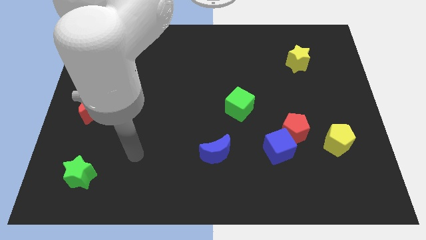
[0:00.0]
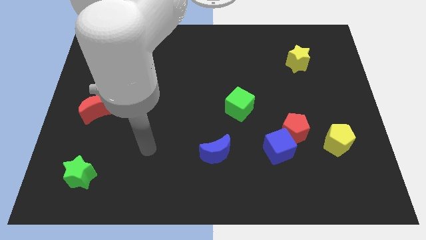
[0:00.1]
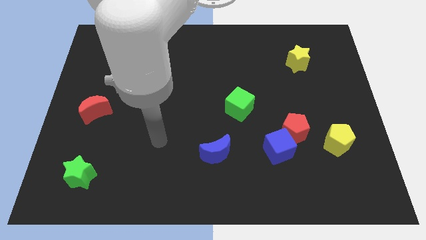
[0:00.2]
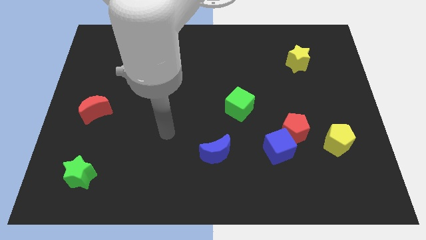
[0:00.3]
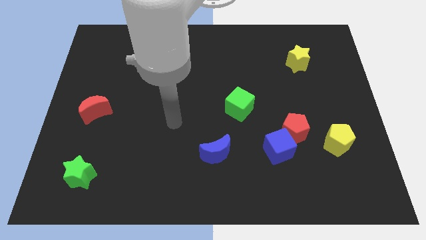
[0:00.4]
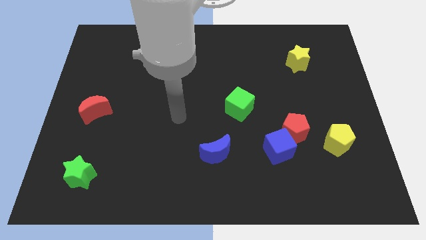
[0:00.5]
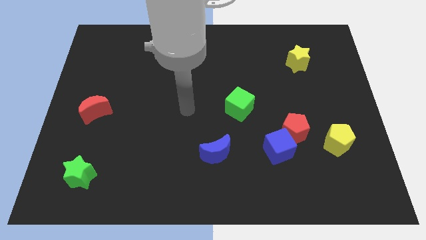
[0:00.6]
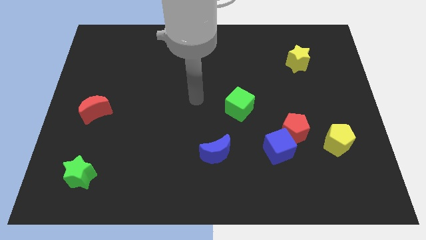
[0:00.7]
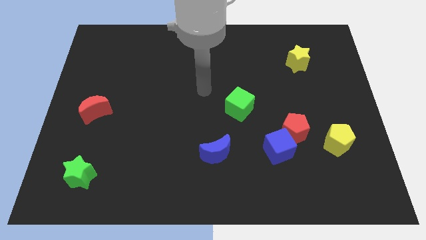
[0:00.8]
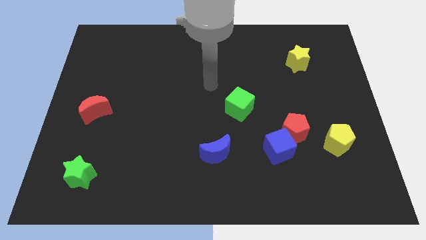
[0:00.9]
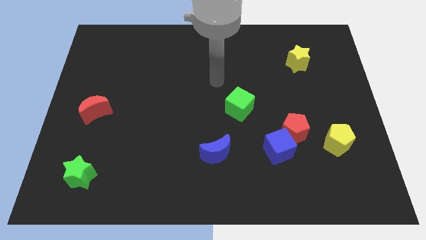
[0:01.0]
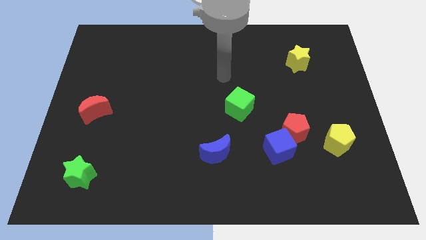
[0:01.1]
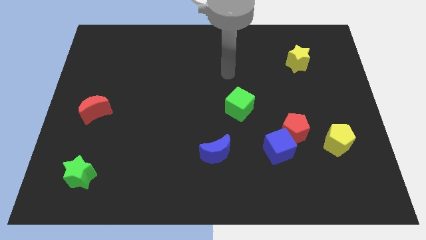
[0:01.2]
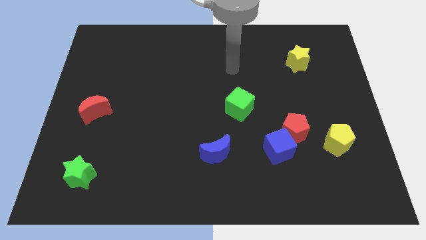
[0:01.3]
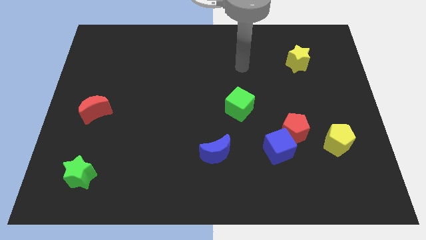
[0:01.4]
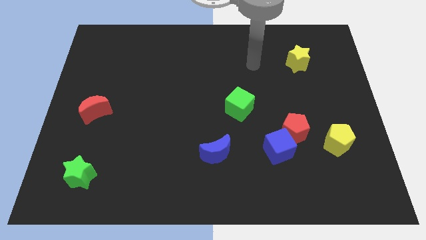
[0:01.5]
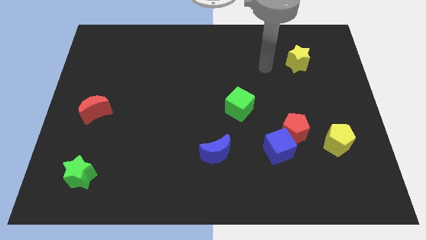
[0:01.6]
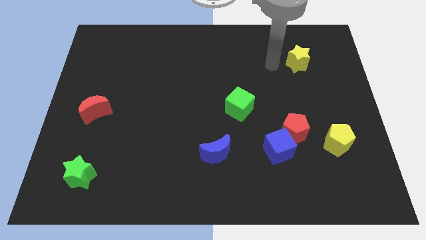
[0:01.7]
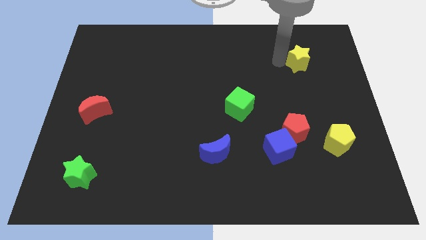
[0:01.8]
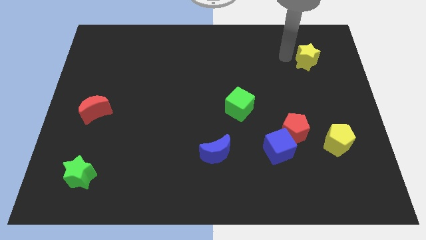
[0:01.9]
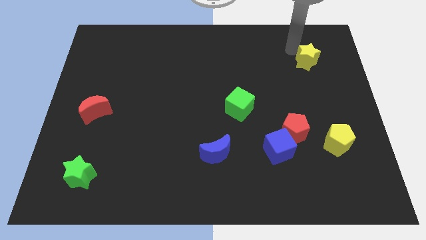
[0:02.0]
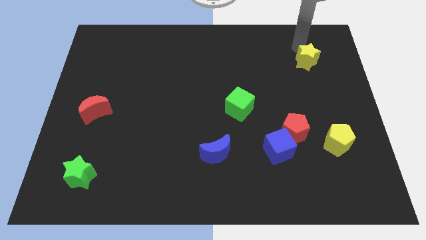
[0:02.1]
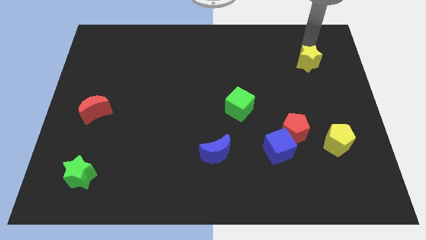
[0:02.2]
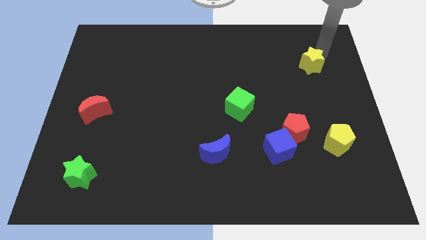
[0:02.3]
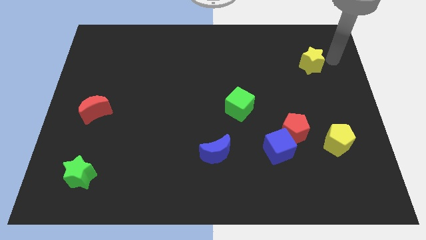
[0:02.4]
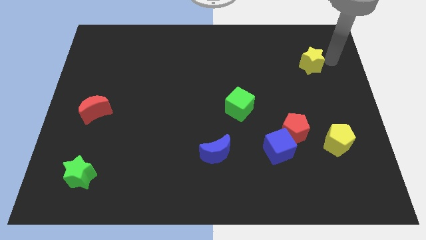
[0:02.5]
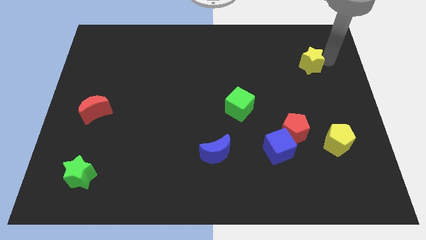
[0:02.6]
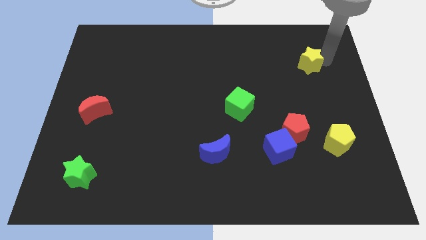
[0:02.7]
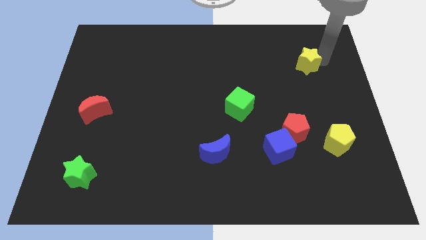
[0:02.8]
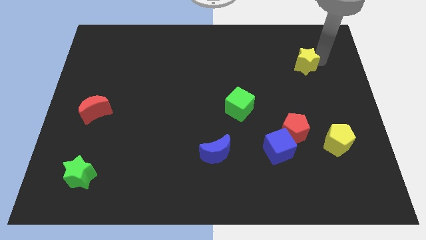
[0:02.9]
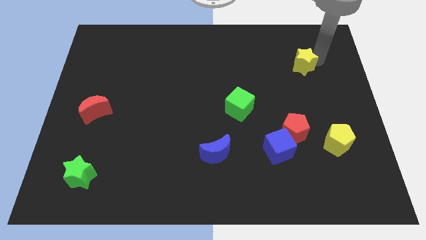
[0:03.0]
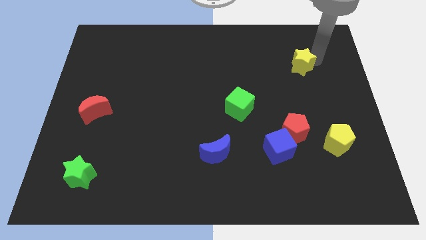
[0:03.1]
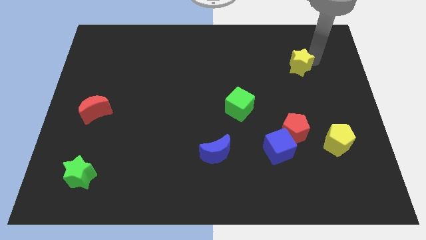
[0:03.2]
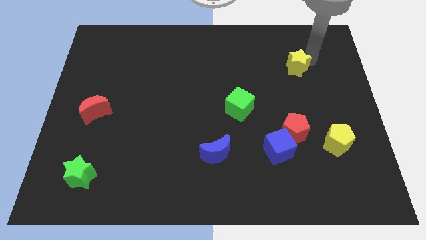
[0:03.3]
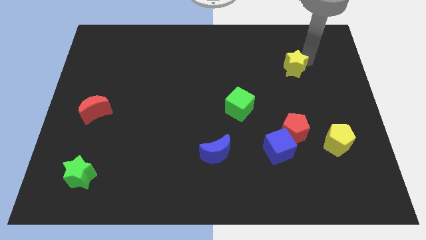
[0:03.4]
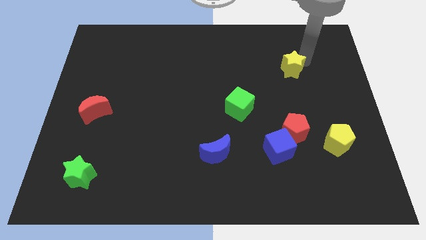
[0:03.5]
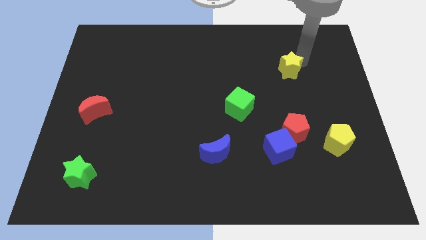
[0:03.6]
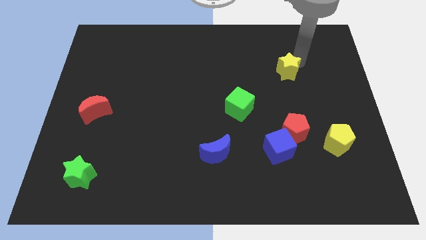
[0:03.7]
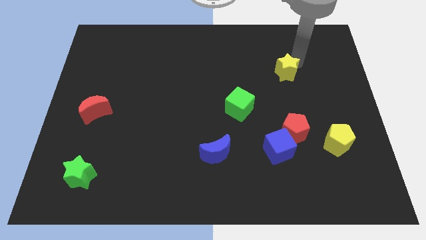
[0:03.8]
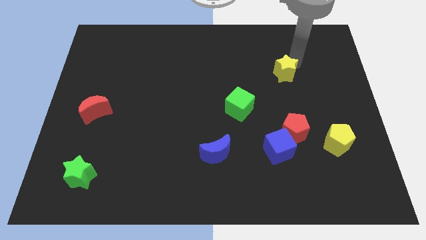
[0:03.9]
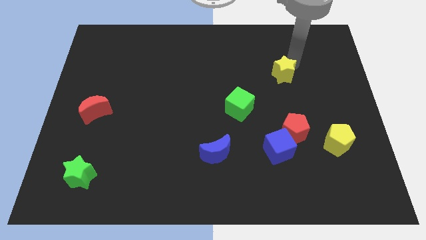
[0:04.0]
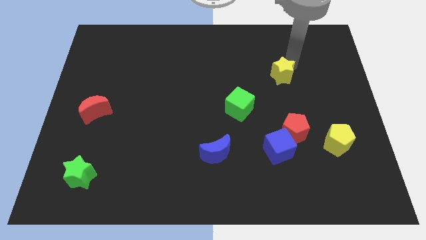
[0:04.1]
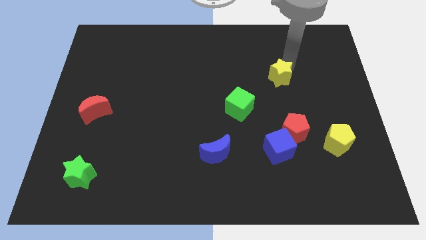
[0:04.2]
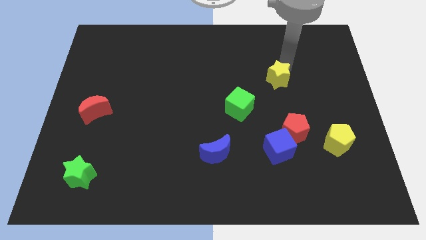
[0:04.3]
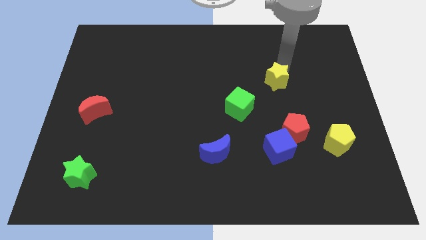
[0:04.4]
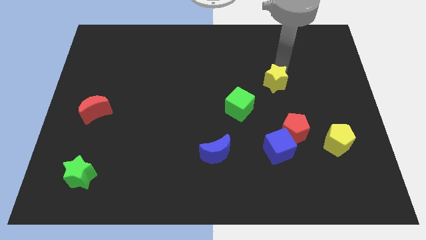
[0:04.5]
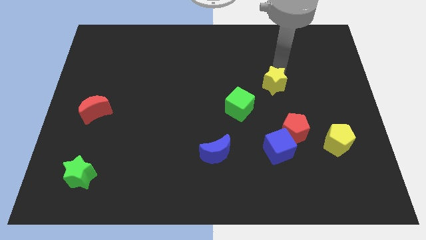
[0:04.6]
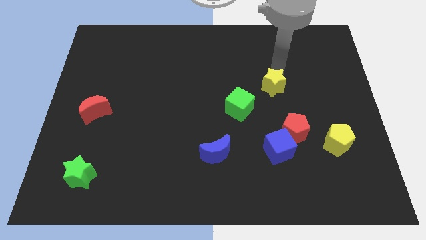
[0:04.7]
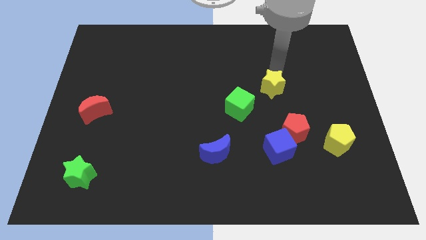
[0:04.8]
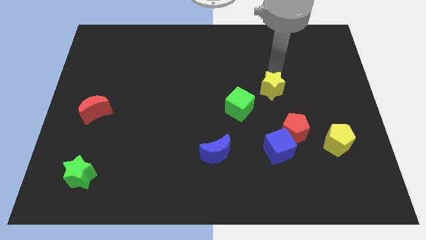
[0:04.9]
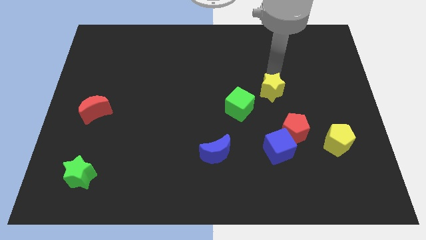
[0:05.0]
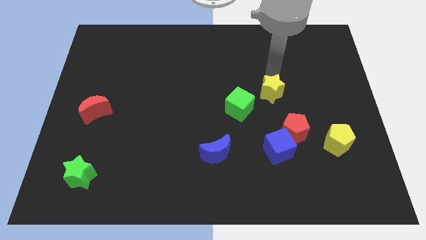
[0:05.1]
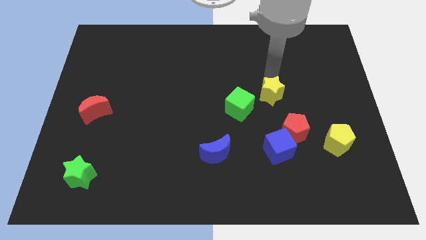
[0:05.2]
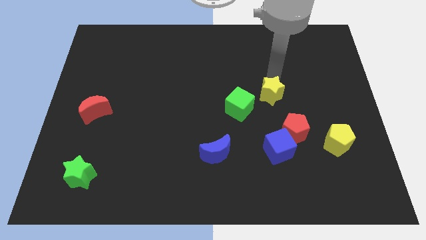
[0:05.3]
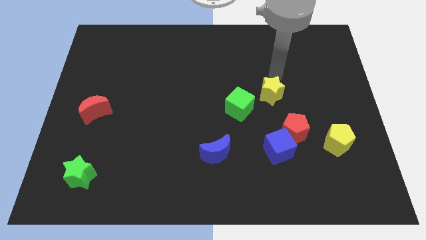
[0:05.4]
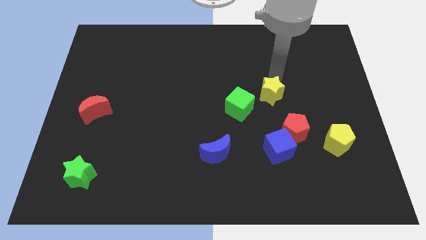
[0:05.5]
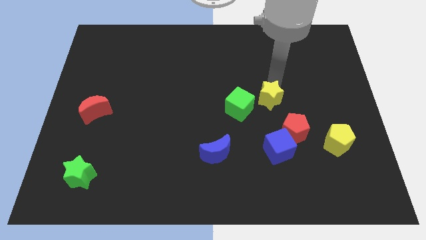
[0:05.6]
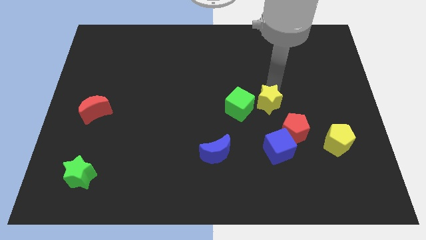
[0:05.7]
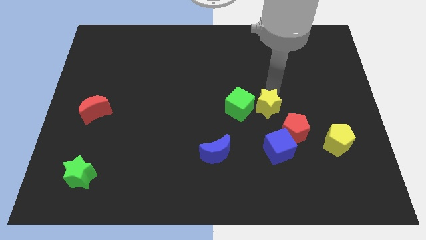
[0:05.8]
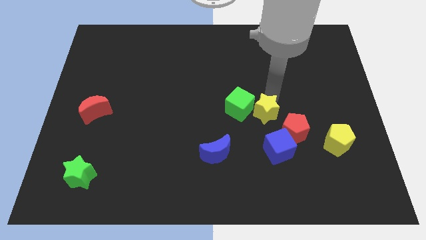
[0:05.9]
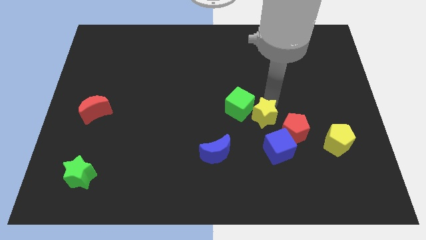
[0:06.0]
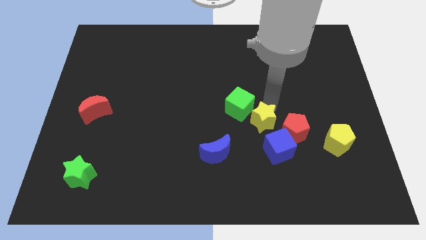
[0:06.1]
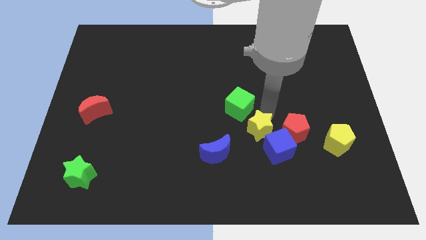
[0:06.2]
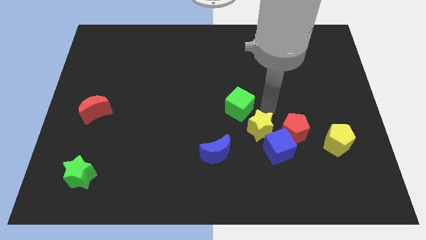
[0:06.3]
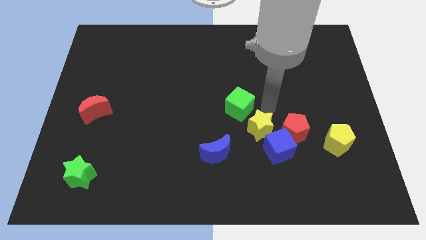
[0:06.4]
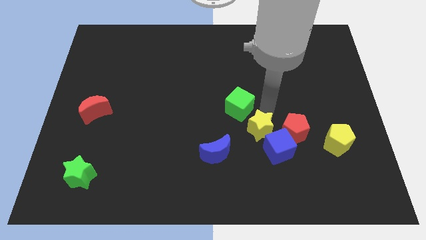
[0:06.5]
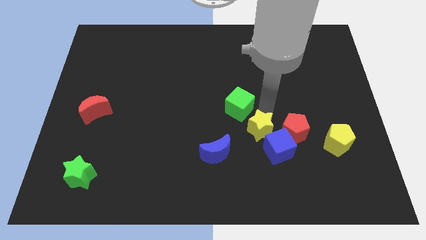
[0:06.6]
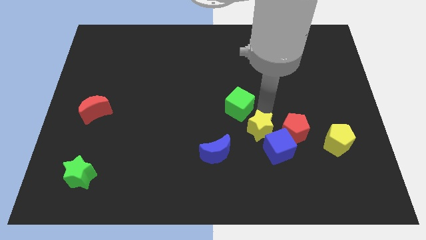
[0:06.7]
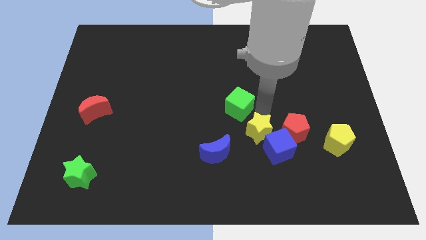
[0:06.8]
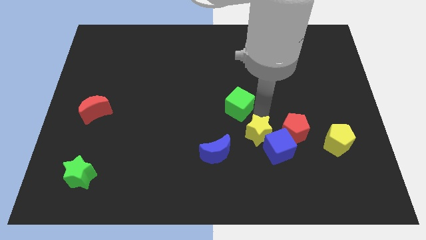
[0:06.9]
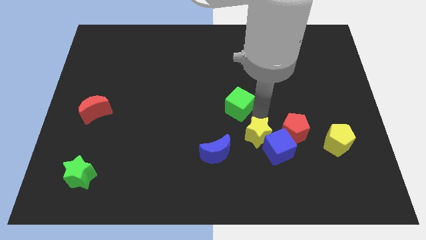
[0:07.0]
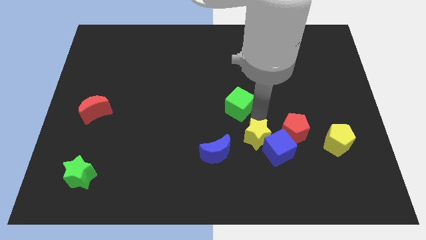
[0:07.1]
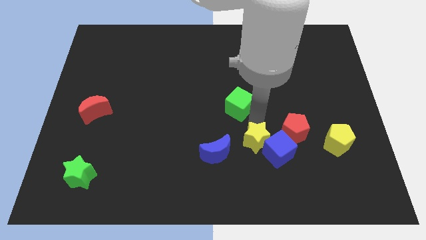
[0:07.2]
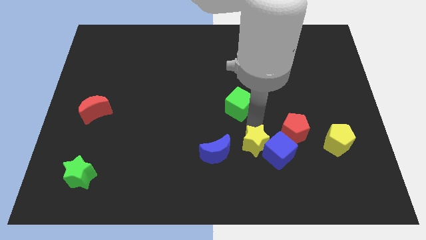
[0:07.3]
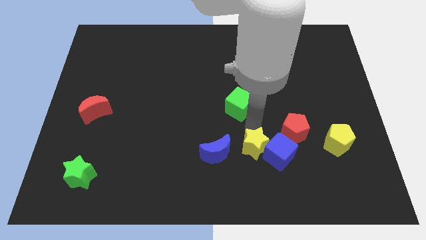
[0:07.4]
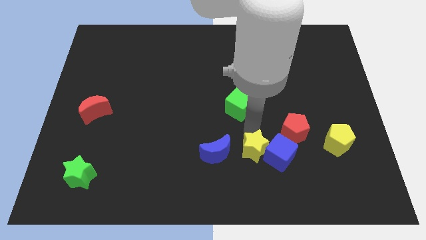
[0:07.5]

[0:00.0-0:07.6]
put the yellow star diagonally down and to the left of the blue cube
